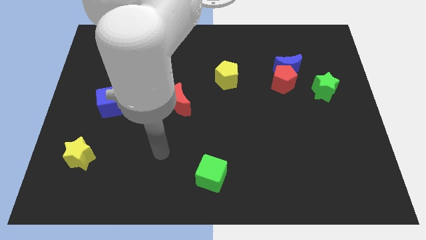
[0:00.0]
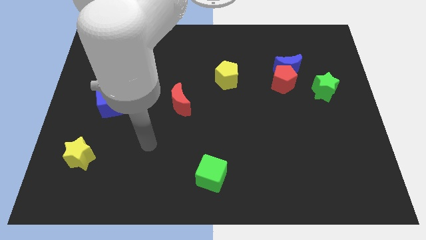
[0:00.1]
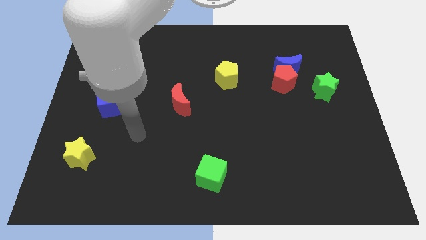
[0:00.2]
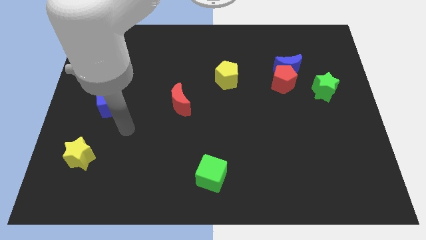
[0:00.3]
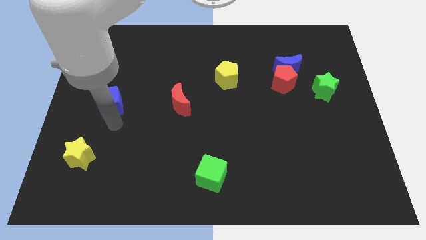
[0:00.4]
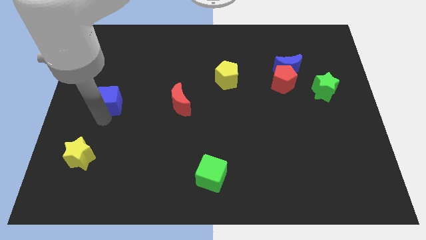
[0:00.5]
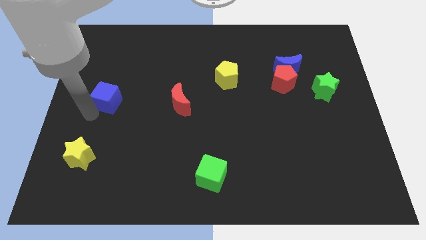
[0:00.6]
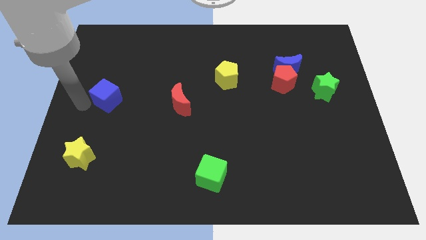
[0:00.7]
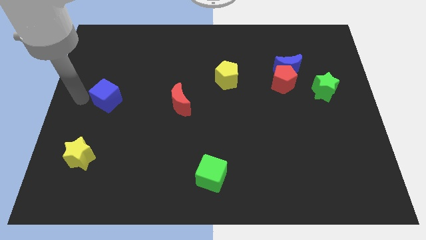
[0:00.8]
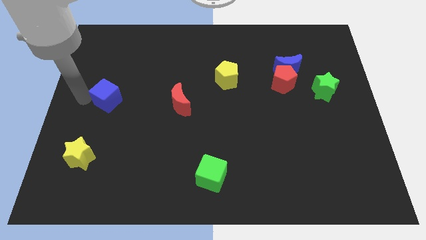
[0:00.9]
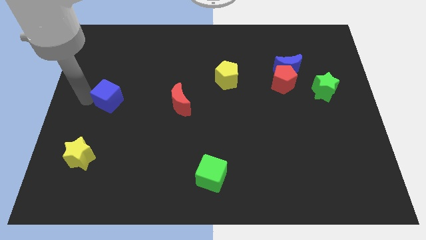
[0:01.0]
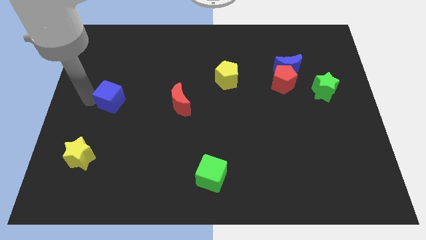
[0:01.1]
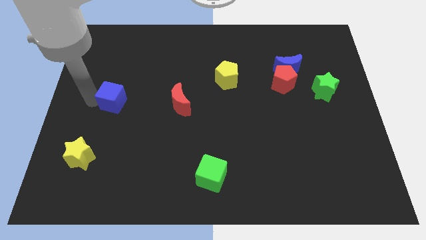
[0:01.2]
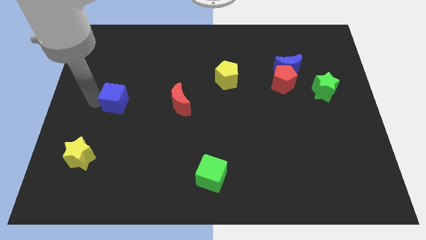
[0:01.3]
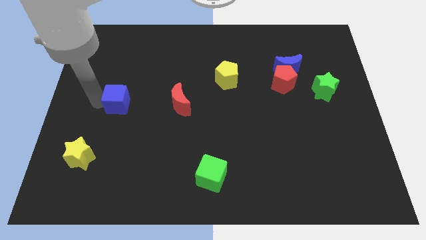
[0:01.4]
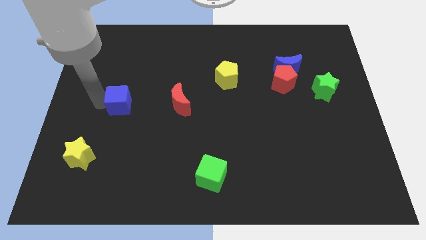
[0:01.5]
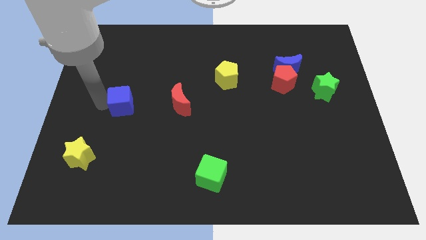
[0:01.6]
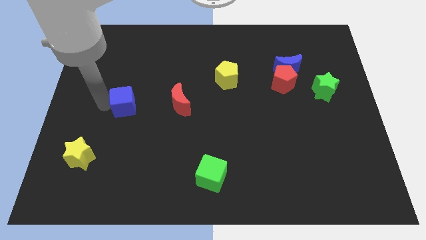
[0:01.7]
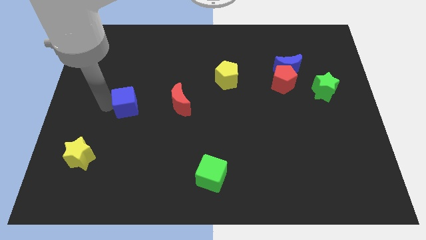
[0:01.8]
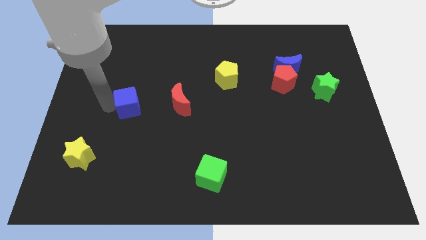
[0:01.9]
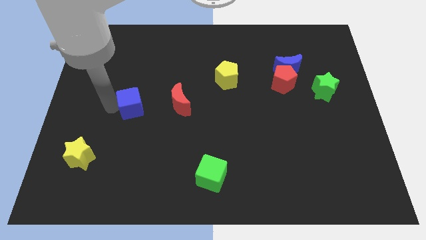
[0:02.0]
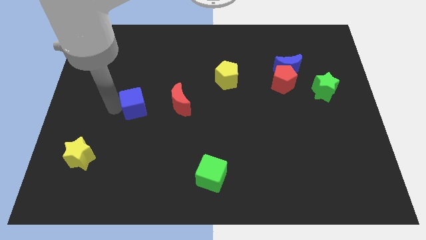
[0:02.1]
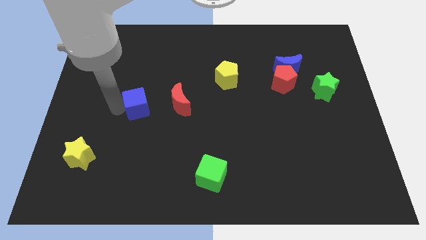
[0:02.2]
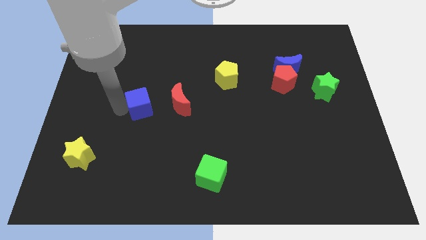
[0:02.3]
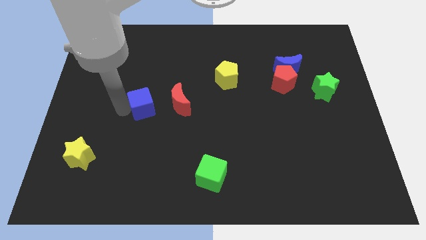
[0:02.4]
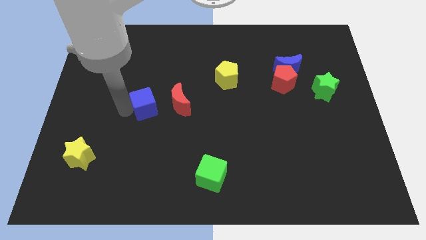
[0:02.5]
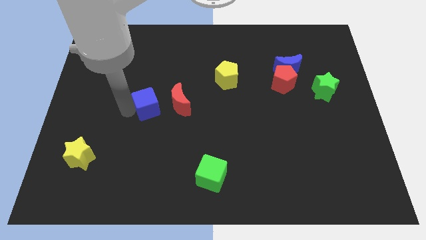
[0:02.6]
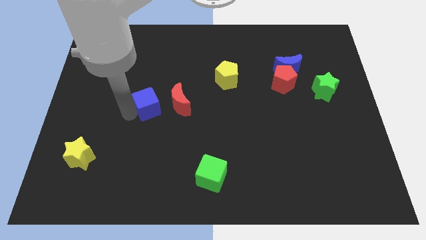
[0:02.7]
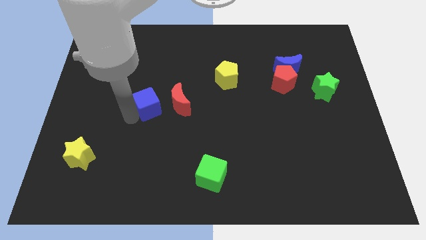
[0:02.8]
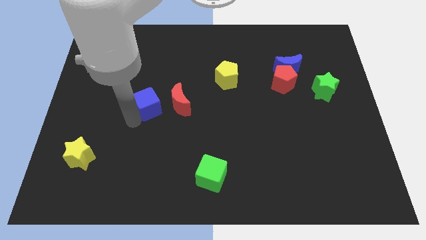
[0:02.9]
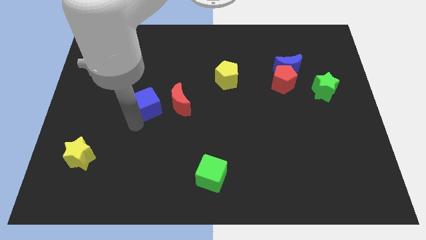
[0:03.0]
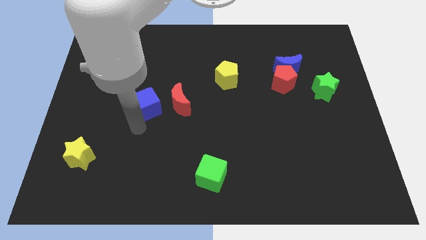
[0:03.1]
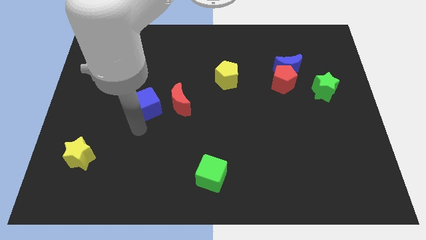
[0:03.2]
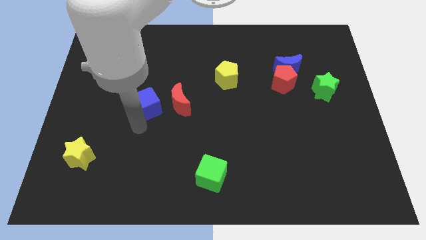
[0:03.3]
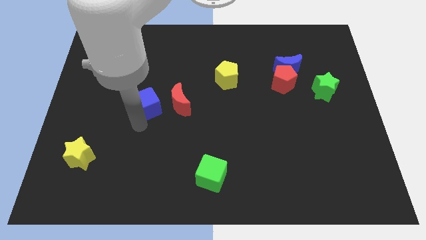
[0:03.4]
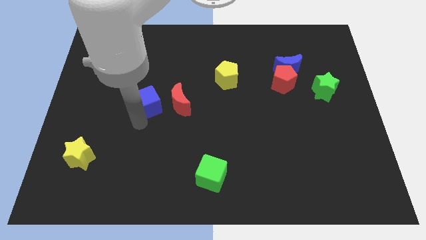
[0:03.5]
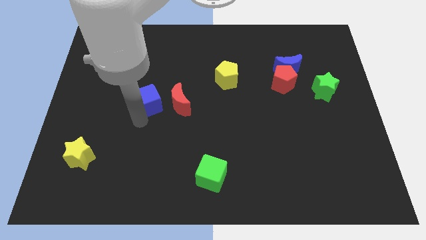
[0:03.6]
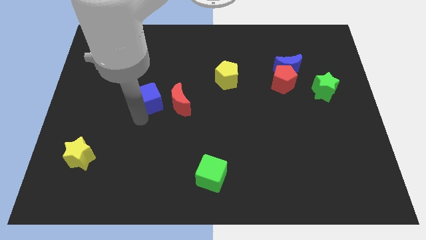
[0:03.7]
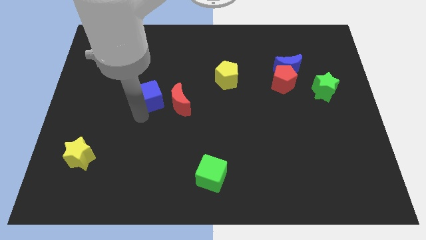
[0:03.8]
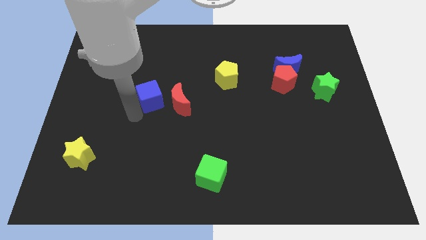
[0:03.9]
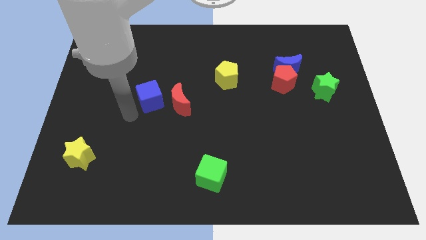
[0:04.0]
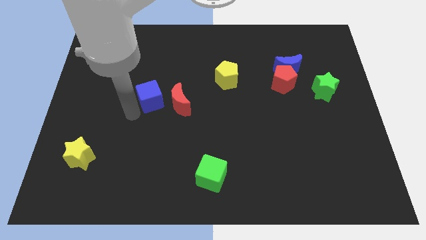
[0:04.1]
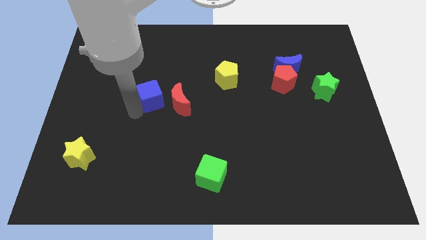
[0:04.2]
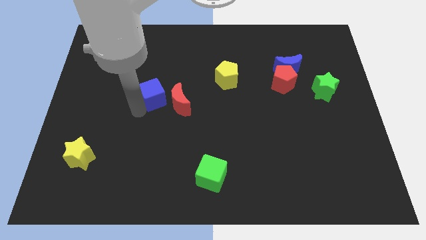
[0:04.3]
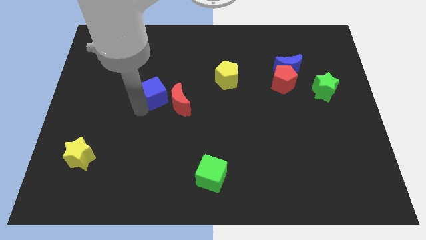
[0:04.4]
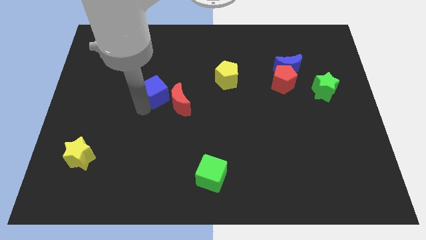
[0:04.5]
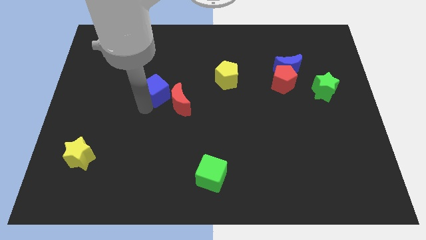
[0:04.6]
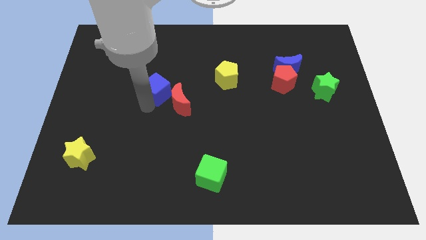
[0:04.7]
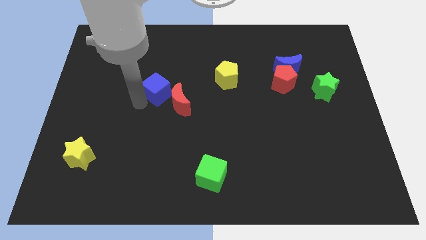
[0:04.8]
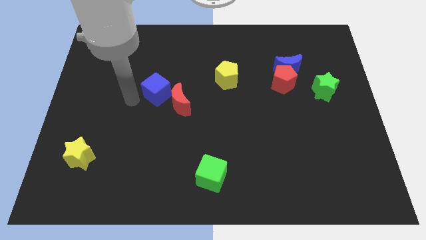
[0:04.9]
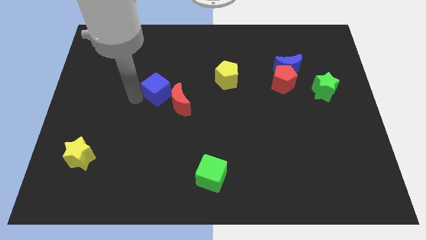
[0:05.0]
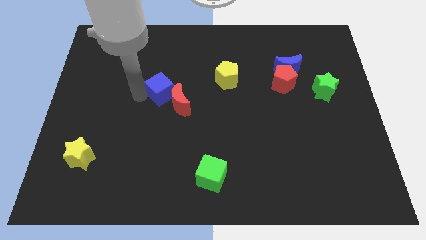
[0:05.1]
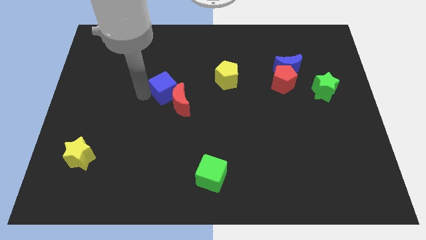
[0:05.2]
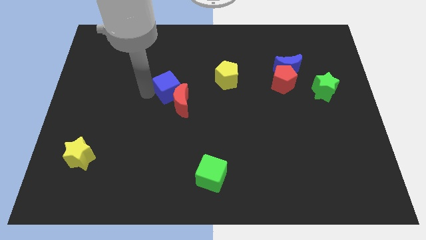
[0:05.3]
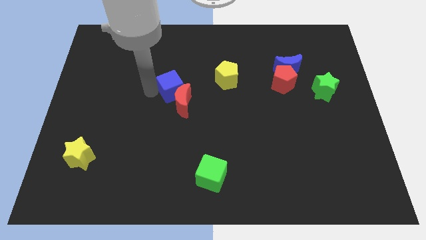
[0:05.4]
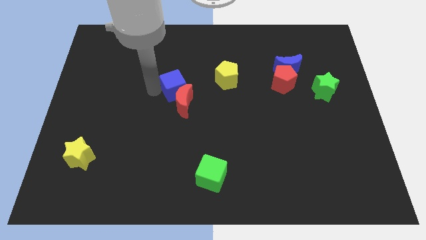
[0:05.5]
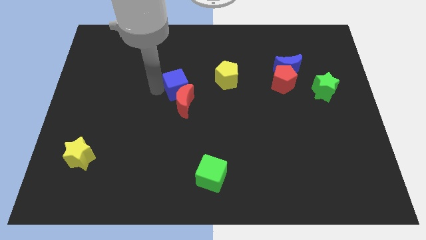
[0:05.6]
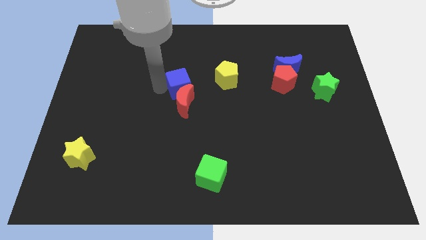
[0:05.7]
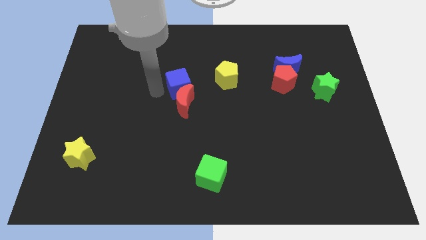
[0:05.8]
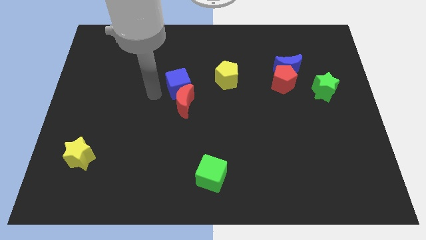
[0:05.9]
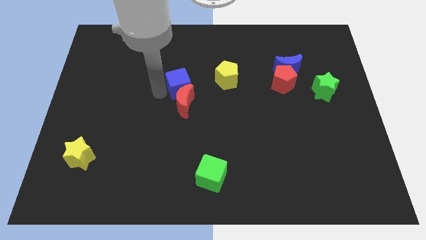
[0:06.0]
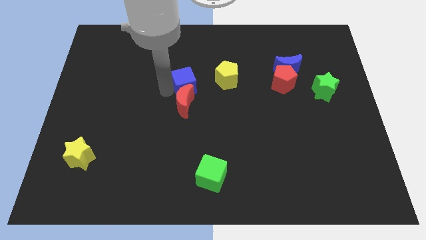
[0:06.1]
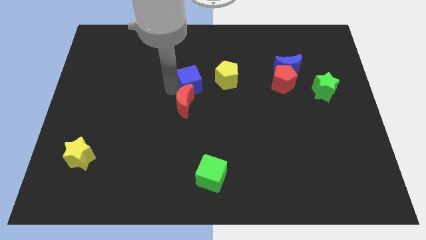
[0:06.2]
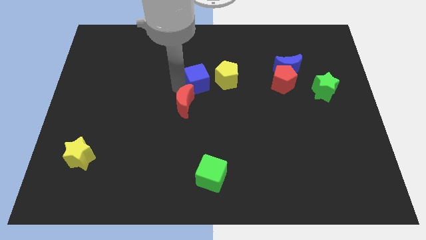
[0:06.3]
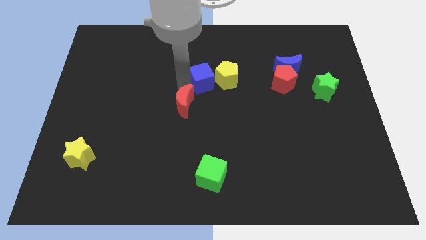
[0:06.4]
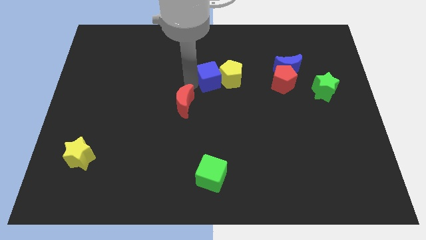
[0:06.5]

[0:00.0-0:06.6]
put the blue cube close to the yellow pentagon
